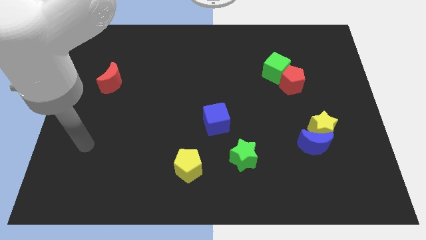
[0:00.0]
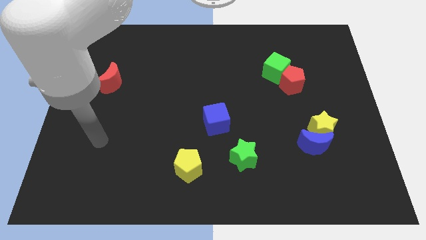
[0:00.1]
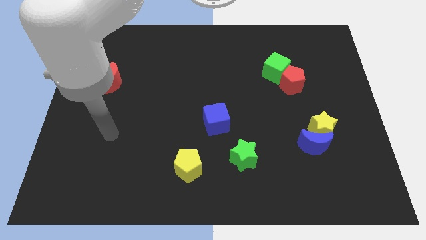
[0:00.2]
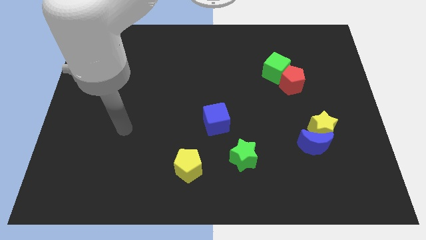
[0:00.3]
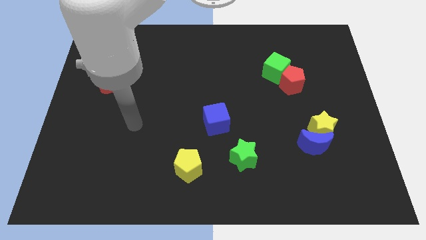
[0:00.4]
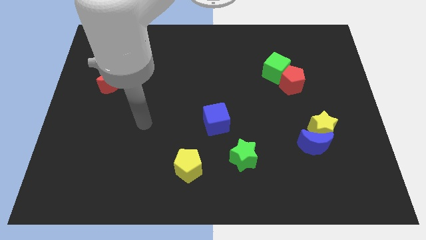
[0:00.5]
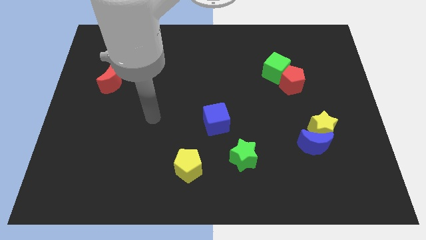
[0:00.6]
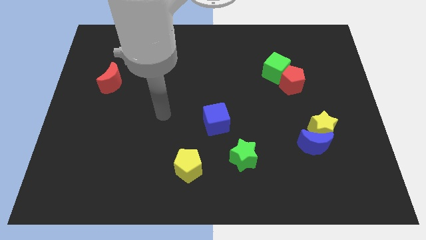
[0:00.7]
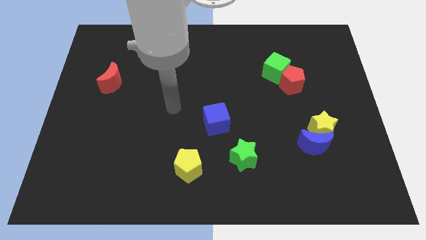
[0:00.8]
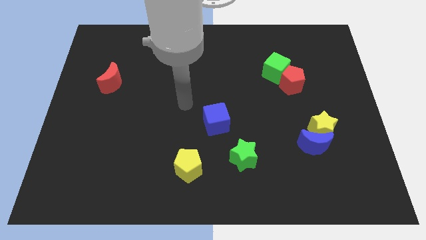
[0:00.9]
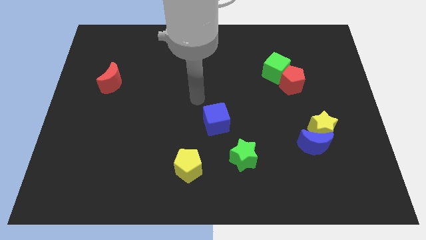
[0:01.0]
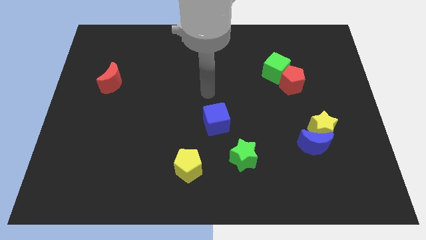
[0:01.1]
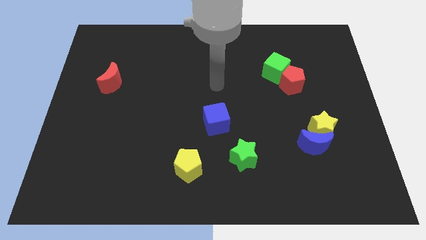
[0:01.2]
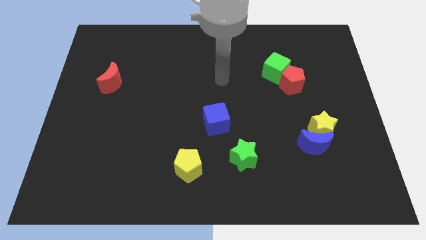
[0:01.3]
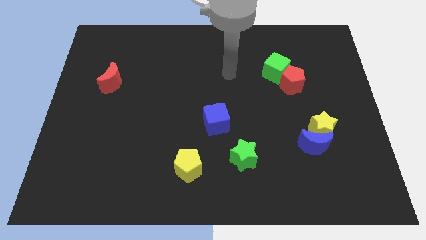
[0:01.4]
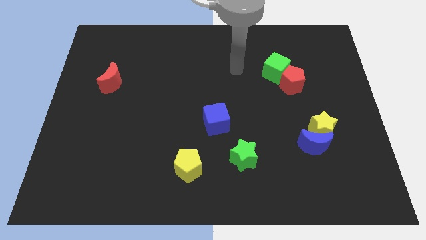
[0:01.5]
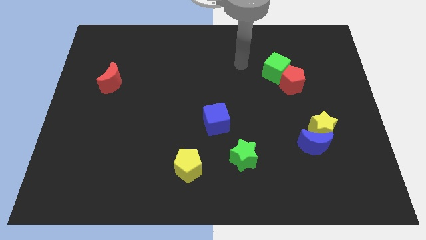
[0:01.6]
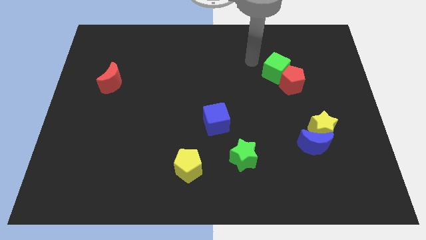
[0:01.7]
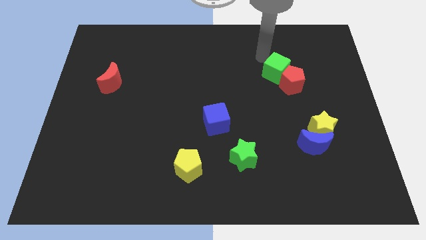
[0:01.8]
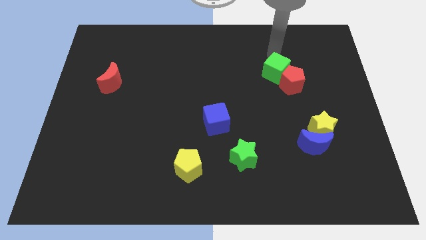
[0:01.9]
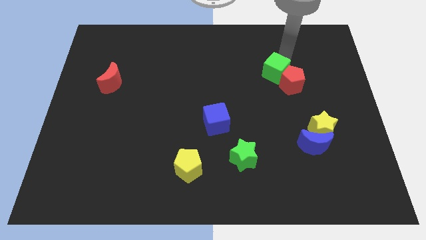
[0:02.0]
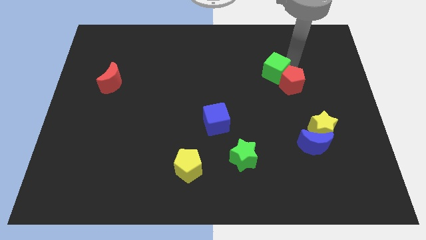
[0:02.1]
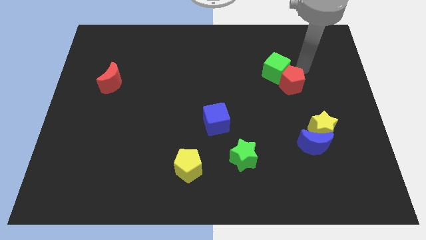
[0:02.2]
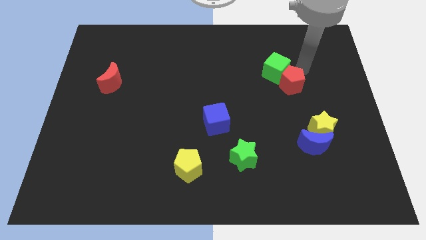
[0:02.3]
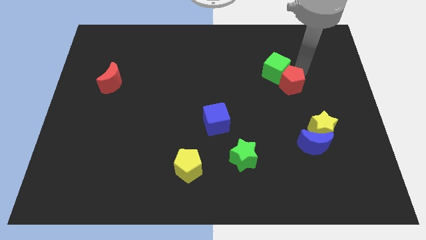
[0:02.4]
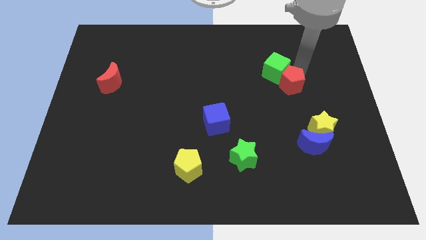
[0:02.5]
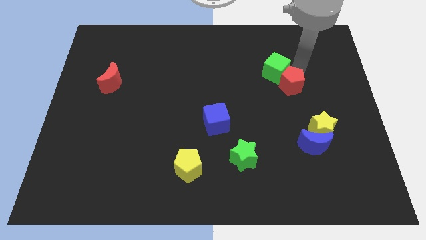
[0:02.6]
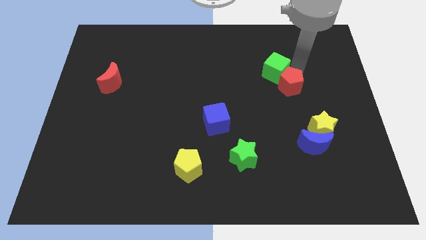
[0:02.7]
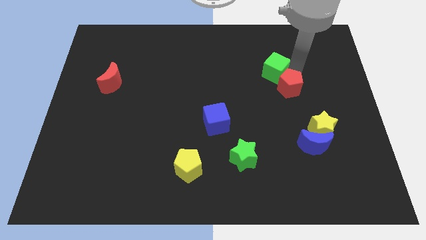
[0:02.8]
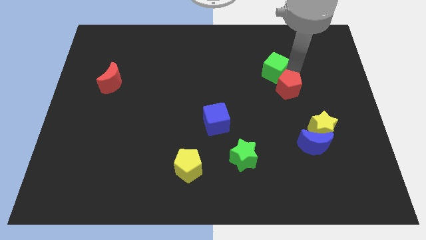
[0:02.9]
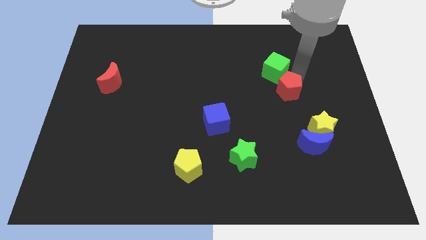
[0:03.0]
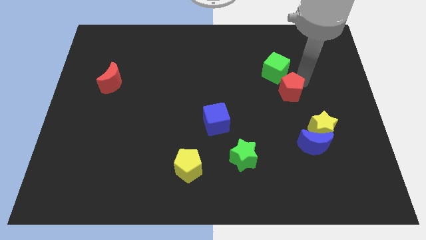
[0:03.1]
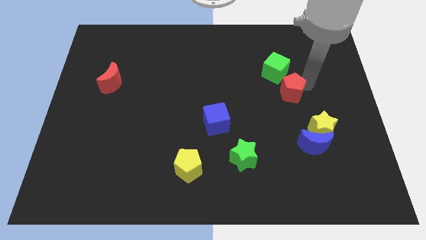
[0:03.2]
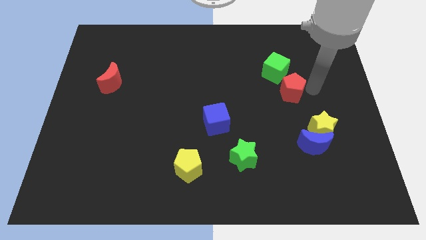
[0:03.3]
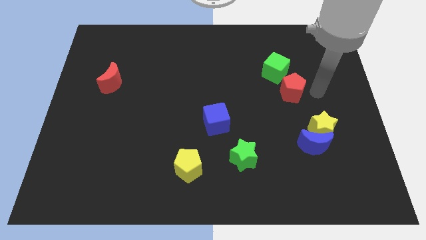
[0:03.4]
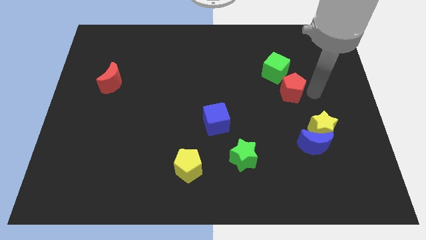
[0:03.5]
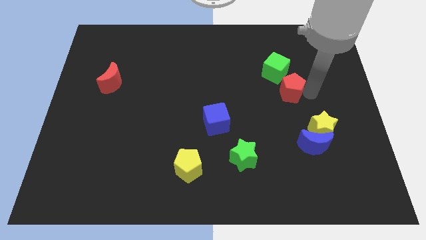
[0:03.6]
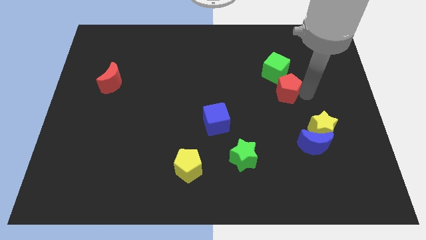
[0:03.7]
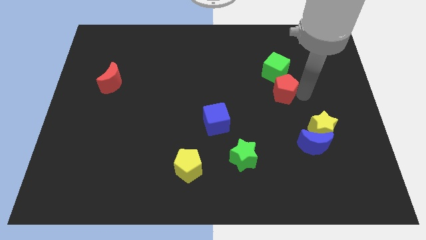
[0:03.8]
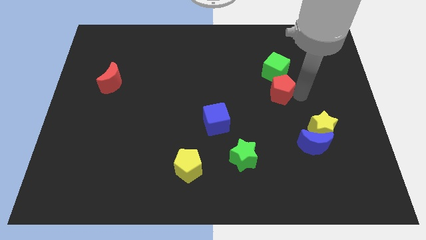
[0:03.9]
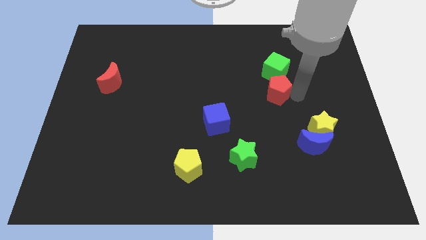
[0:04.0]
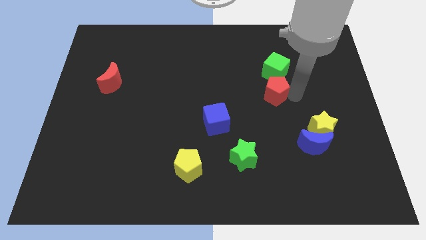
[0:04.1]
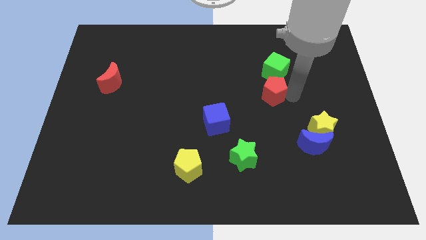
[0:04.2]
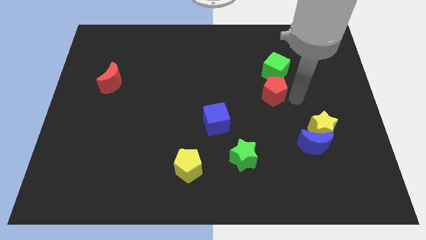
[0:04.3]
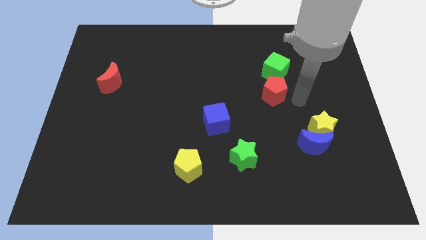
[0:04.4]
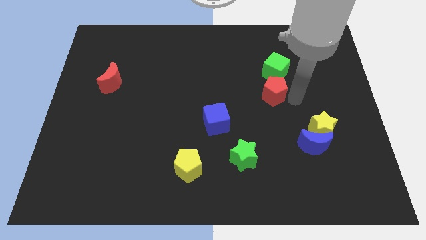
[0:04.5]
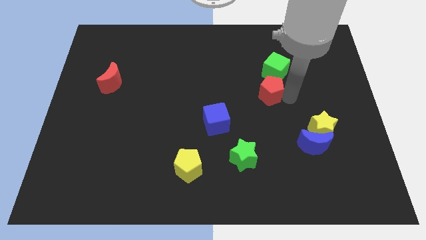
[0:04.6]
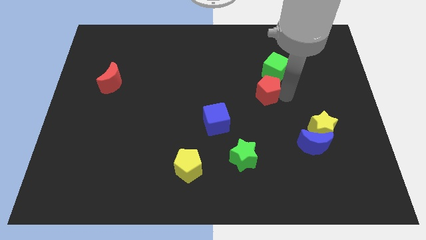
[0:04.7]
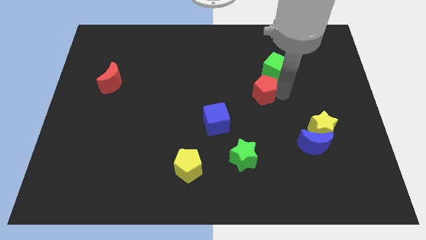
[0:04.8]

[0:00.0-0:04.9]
slide the red pentagon to the middle of the board

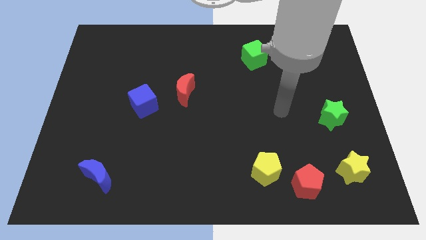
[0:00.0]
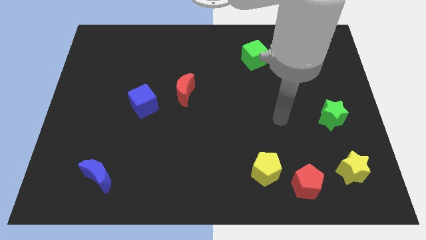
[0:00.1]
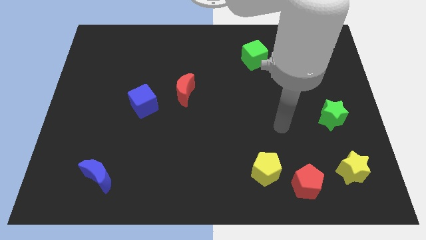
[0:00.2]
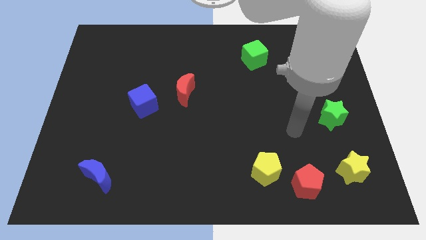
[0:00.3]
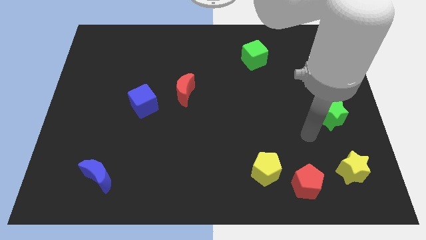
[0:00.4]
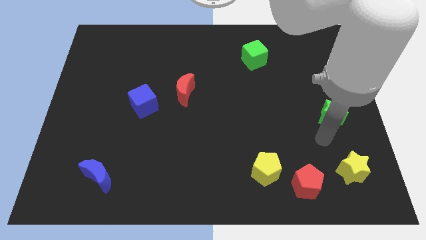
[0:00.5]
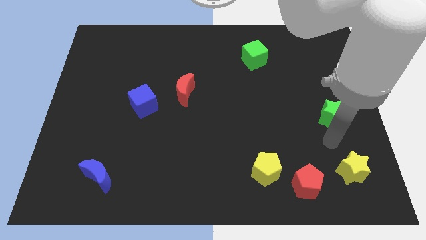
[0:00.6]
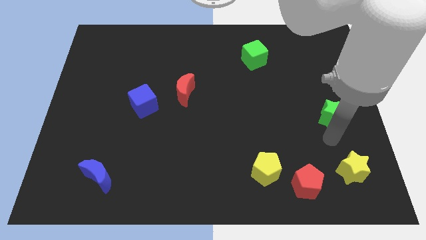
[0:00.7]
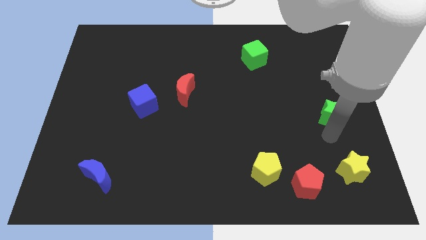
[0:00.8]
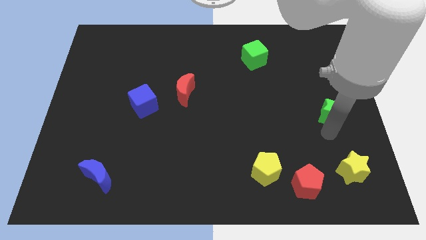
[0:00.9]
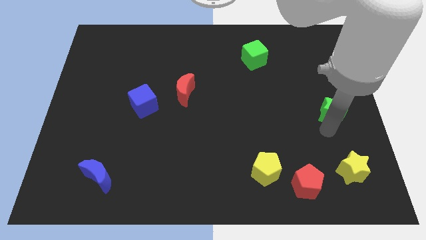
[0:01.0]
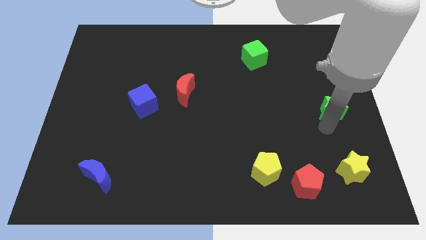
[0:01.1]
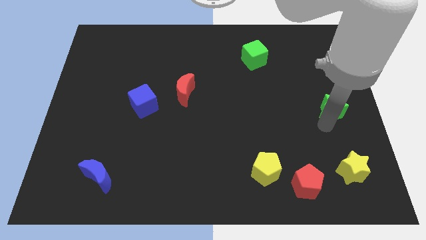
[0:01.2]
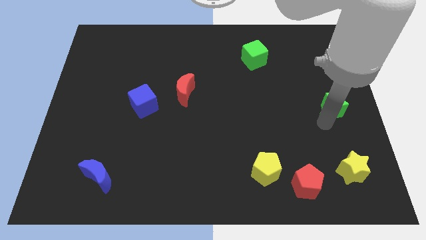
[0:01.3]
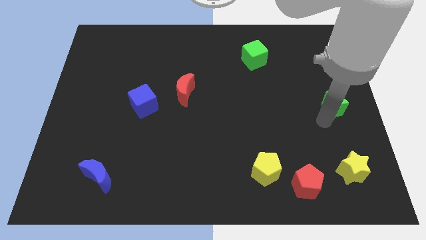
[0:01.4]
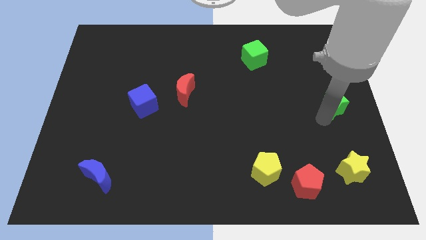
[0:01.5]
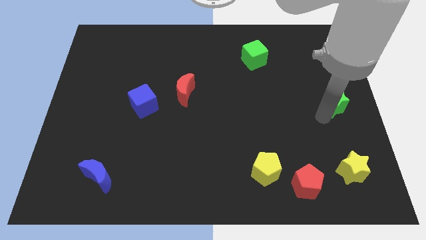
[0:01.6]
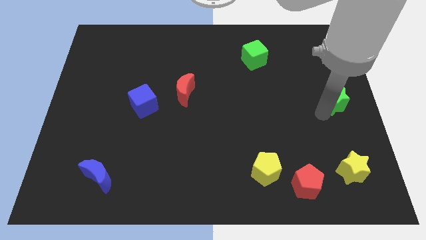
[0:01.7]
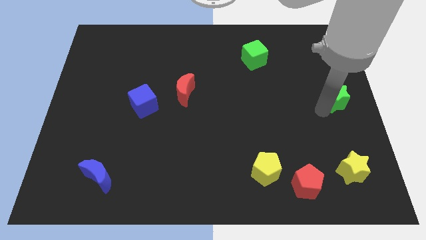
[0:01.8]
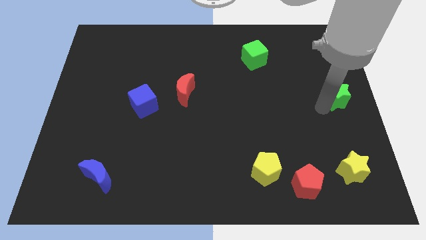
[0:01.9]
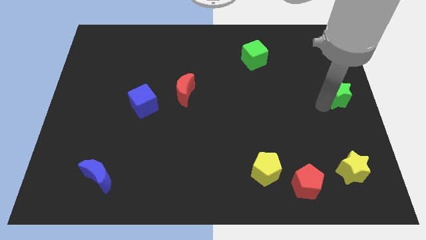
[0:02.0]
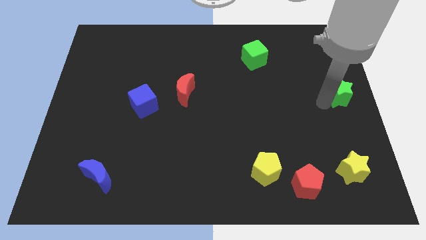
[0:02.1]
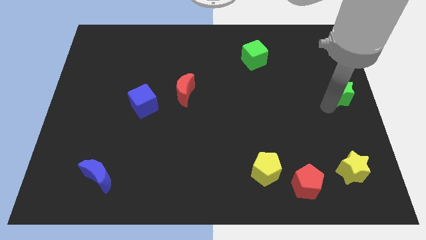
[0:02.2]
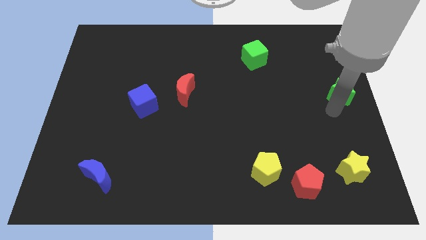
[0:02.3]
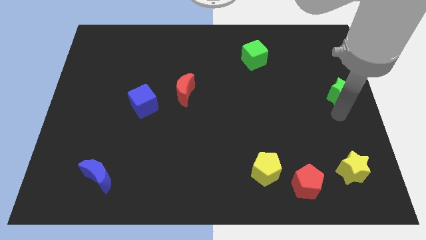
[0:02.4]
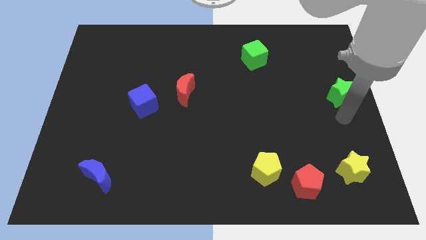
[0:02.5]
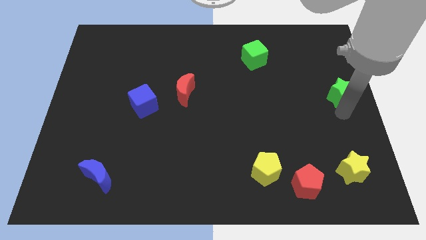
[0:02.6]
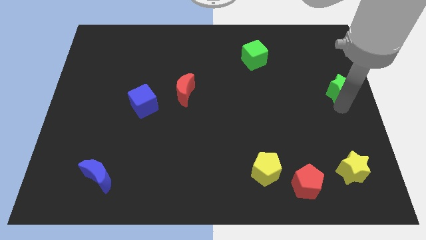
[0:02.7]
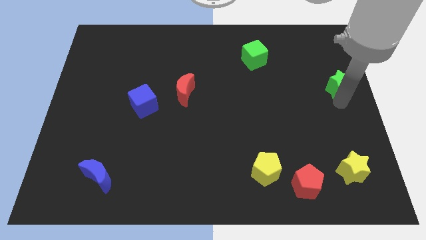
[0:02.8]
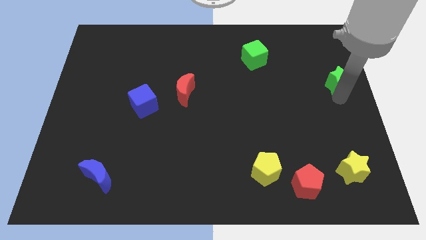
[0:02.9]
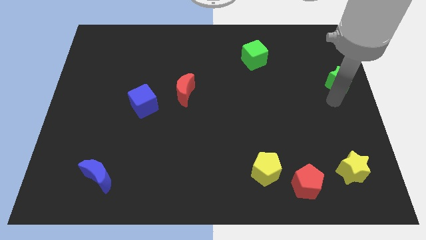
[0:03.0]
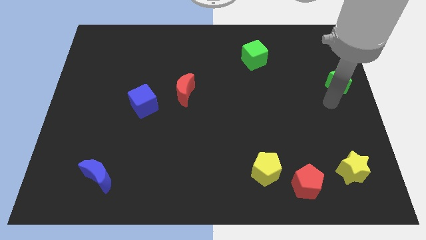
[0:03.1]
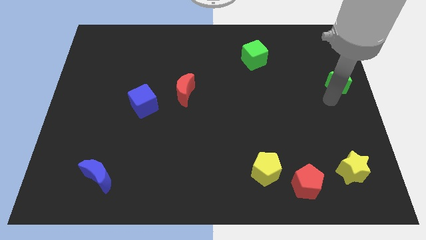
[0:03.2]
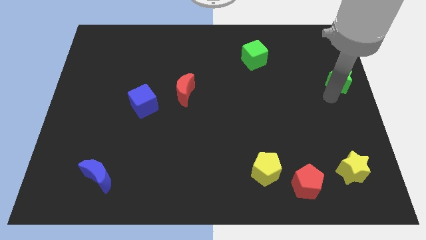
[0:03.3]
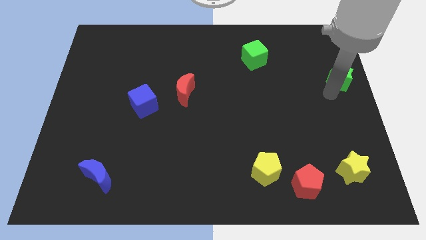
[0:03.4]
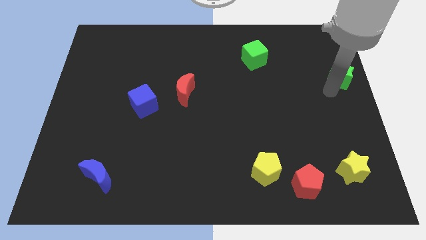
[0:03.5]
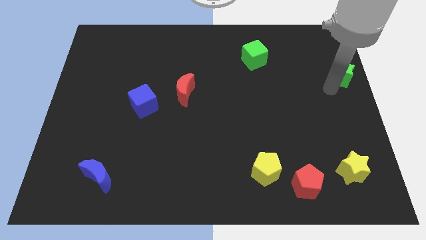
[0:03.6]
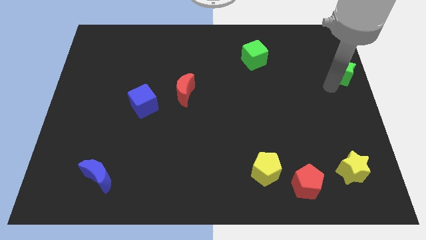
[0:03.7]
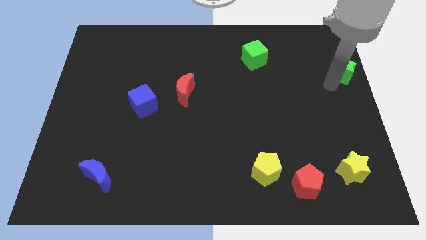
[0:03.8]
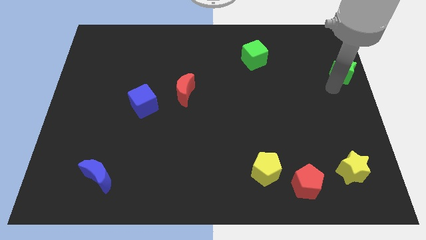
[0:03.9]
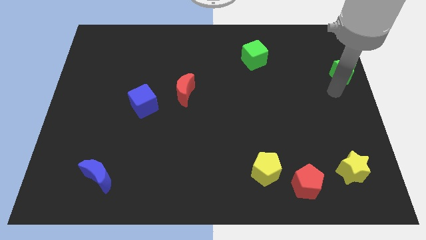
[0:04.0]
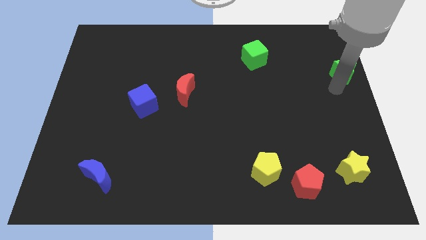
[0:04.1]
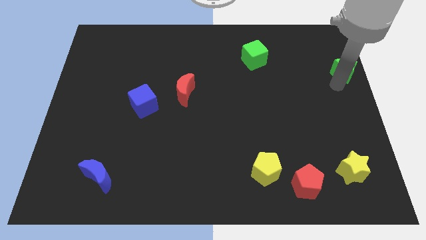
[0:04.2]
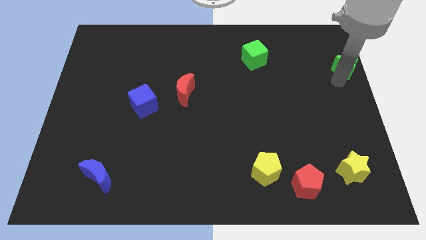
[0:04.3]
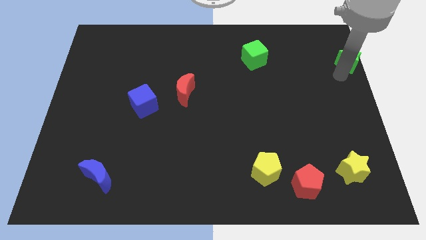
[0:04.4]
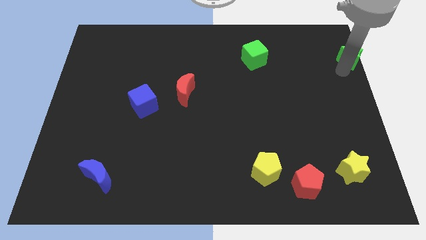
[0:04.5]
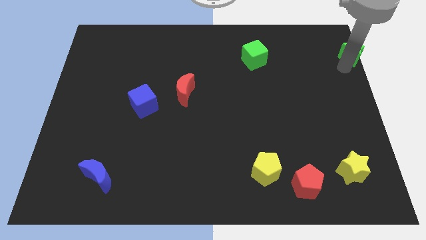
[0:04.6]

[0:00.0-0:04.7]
move the green star to the top right corner
